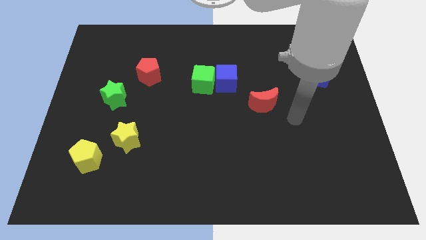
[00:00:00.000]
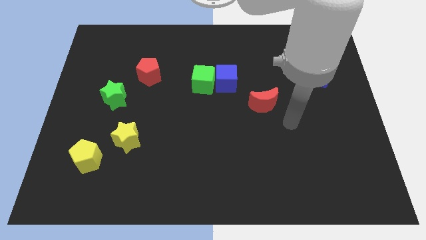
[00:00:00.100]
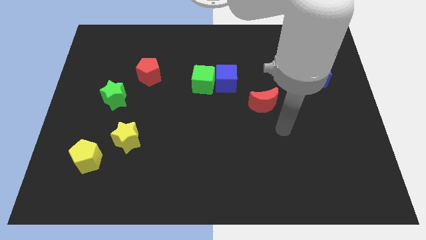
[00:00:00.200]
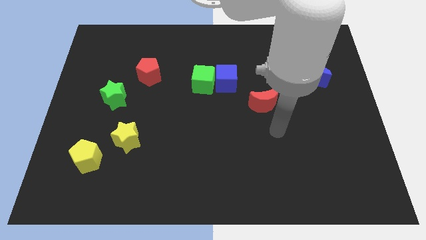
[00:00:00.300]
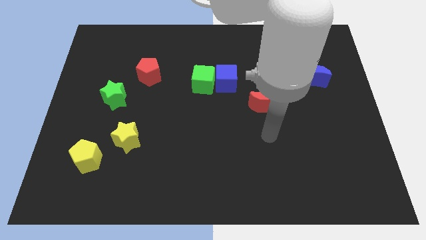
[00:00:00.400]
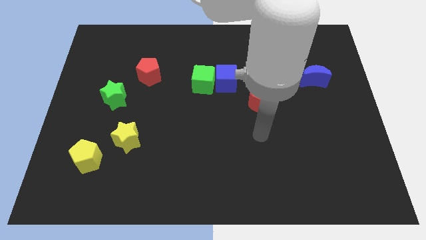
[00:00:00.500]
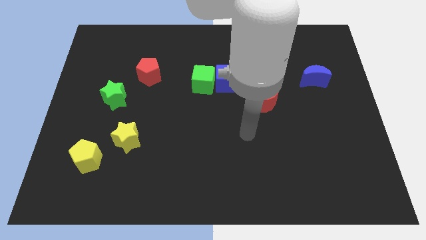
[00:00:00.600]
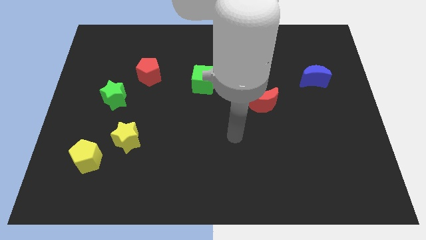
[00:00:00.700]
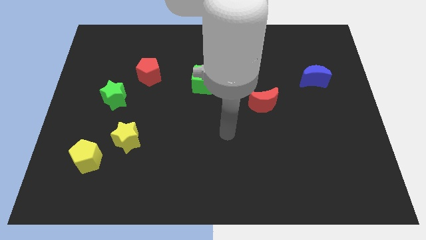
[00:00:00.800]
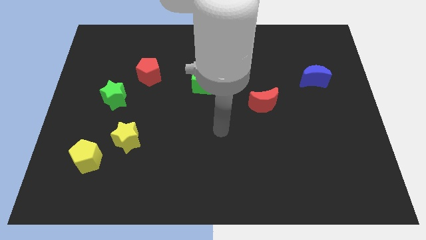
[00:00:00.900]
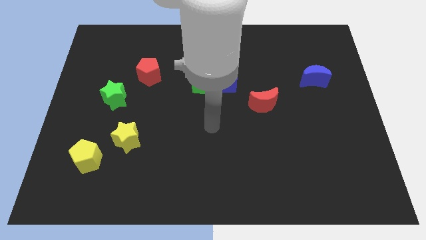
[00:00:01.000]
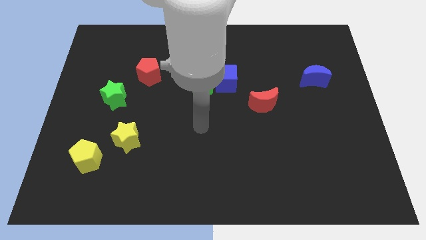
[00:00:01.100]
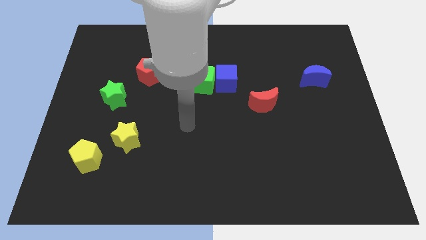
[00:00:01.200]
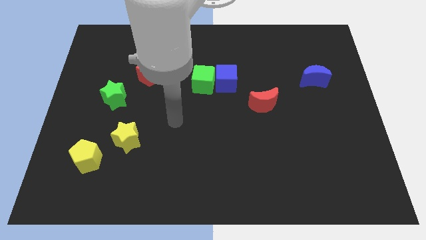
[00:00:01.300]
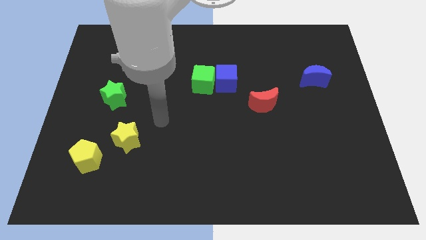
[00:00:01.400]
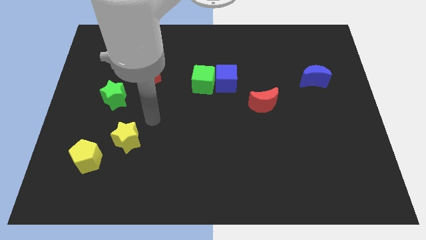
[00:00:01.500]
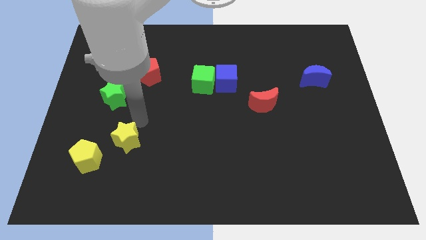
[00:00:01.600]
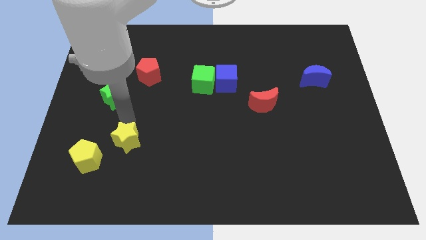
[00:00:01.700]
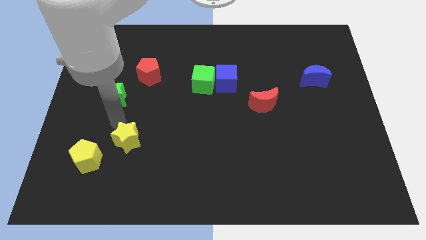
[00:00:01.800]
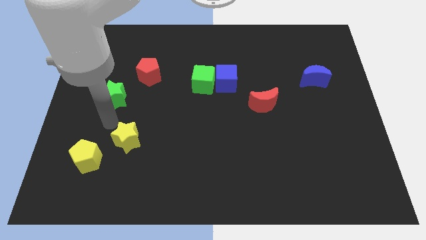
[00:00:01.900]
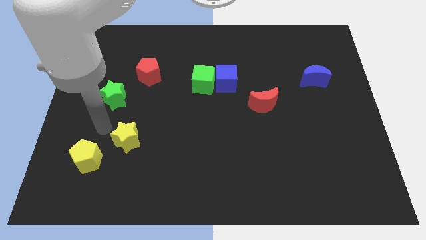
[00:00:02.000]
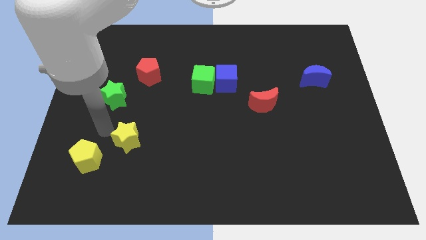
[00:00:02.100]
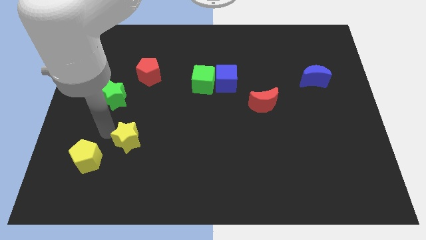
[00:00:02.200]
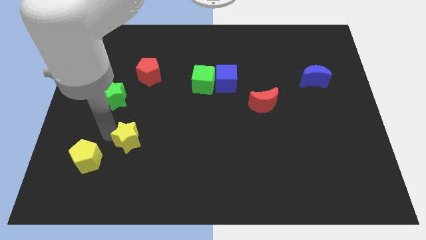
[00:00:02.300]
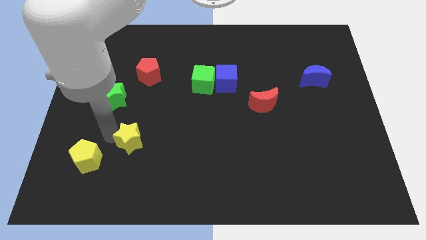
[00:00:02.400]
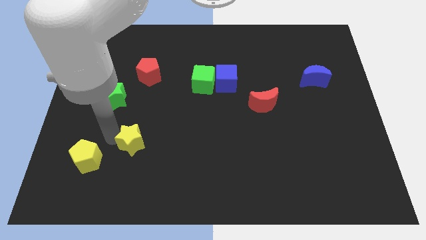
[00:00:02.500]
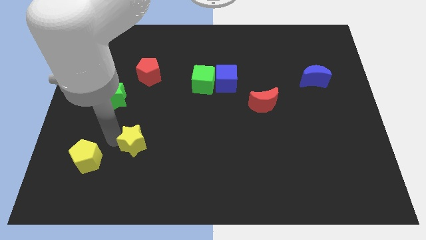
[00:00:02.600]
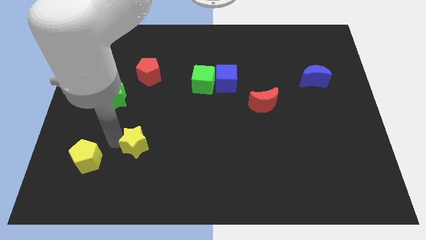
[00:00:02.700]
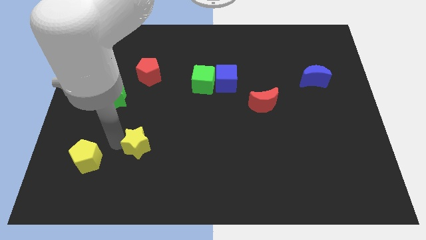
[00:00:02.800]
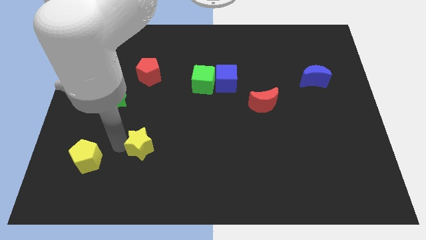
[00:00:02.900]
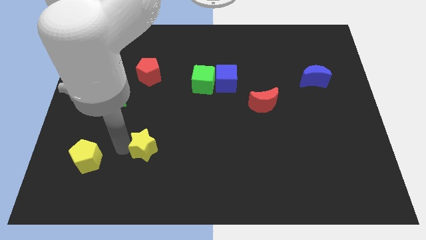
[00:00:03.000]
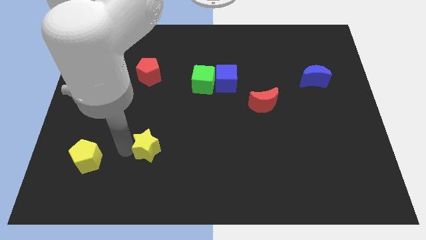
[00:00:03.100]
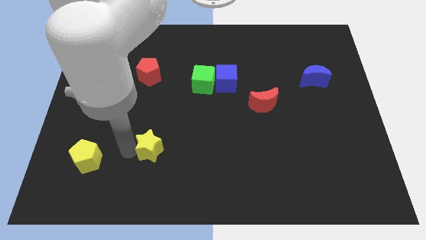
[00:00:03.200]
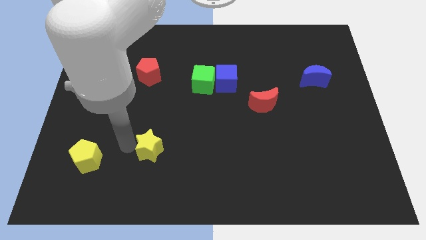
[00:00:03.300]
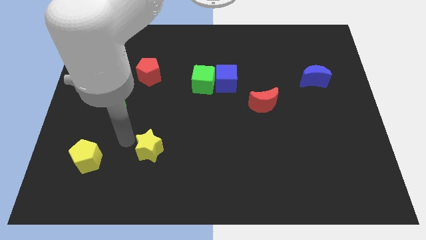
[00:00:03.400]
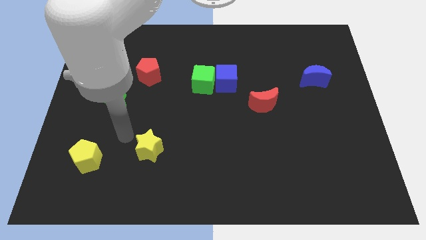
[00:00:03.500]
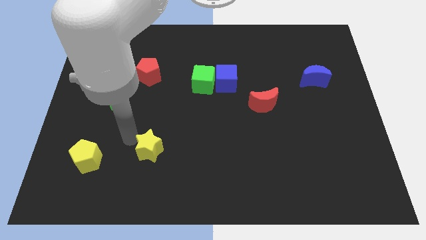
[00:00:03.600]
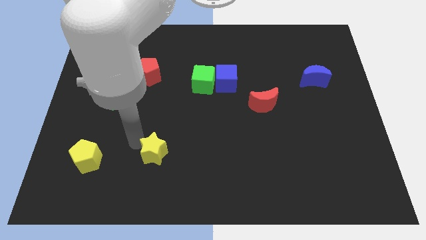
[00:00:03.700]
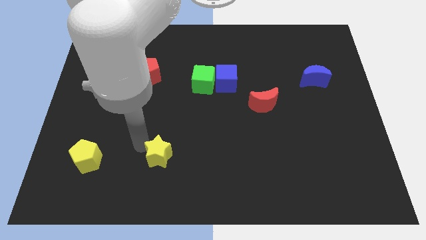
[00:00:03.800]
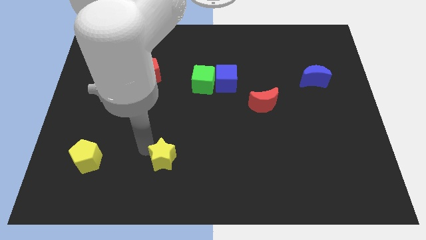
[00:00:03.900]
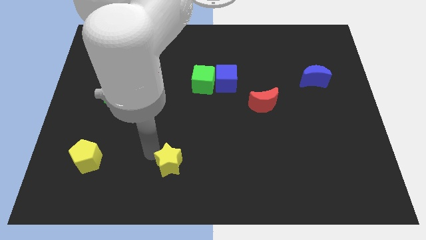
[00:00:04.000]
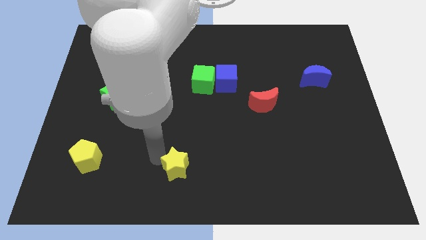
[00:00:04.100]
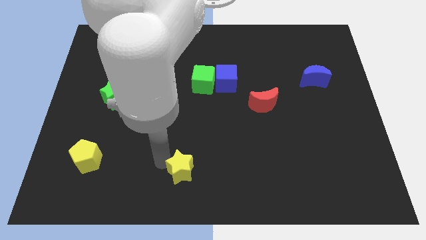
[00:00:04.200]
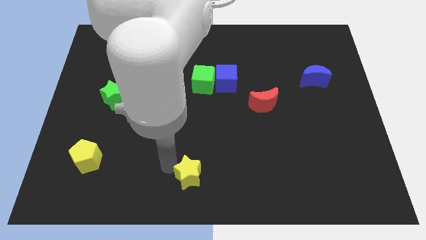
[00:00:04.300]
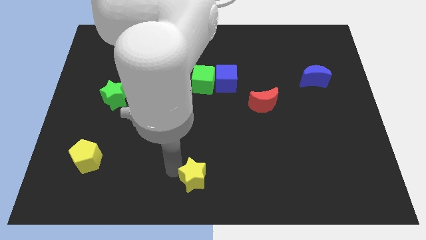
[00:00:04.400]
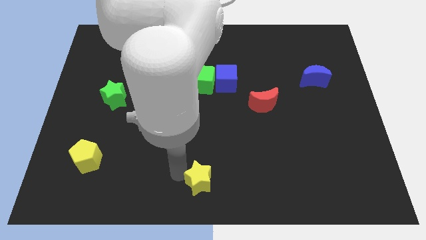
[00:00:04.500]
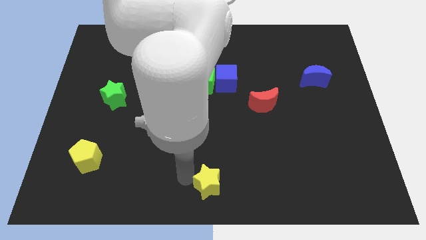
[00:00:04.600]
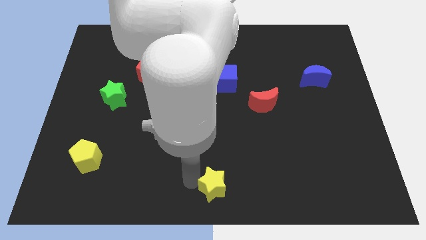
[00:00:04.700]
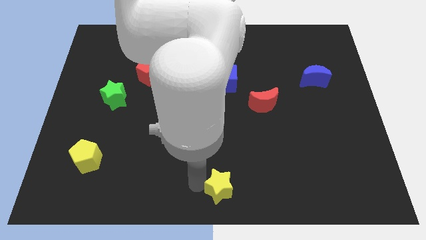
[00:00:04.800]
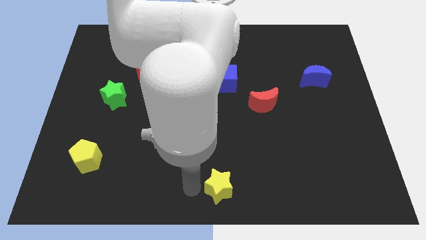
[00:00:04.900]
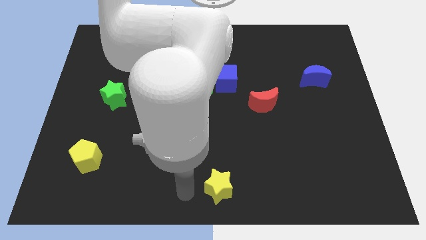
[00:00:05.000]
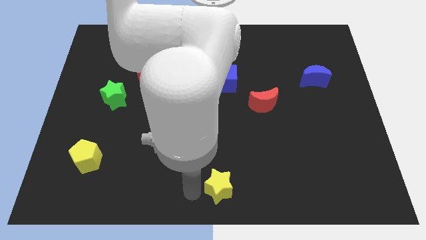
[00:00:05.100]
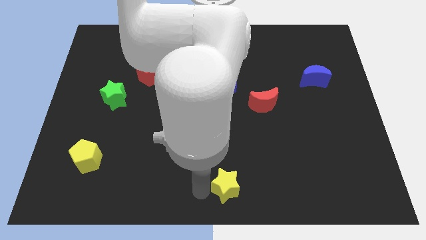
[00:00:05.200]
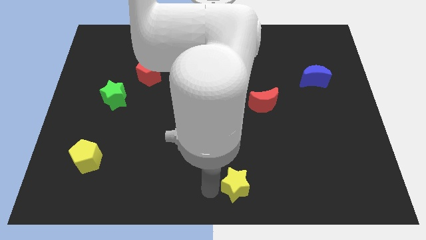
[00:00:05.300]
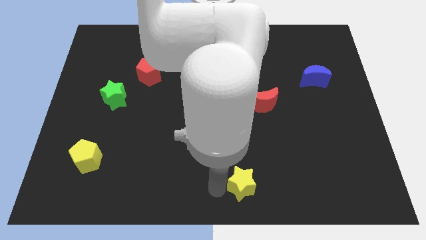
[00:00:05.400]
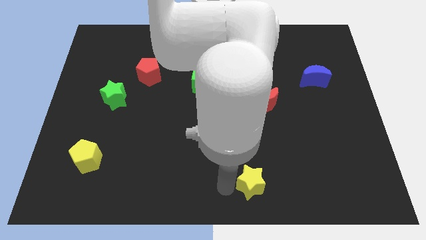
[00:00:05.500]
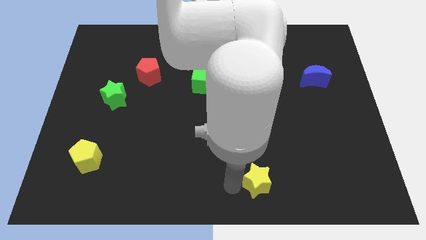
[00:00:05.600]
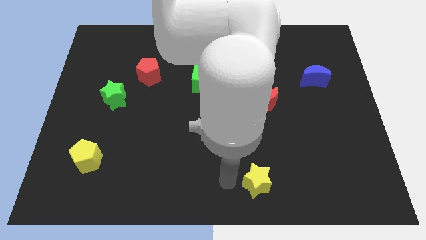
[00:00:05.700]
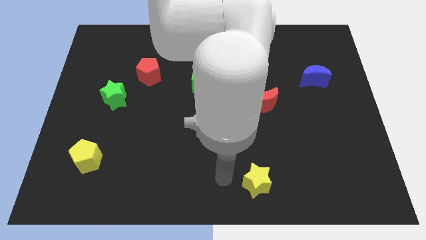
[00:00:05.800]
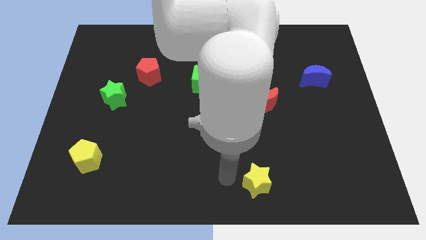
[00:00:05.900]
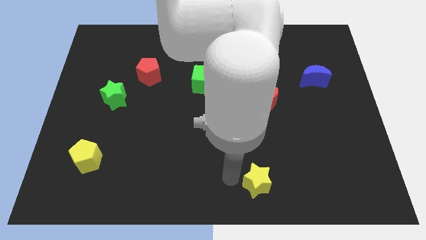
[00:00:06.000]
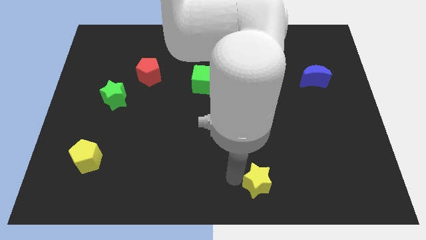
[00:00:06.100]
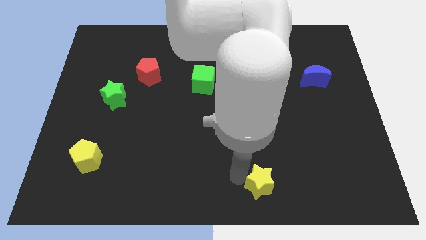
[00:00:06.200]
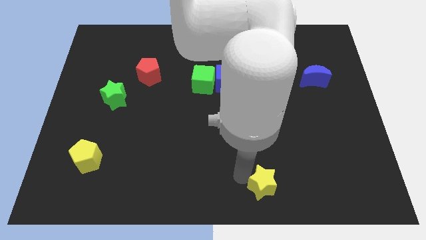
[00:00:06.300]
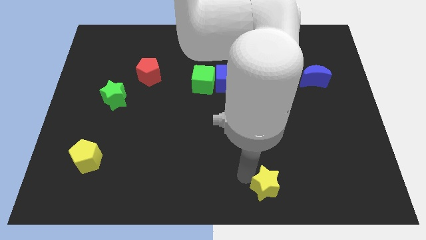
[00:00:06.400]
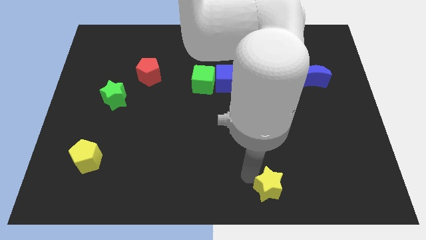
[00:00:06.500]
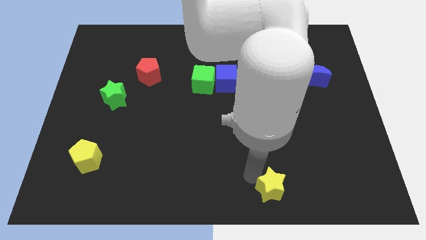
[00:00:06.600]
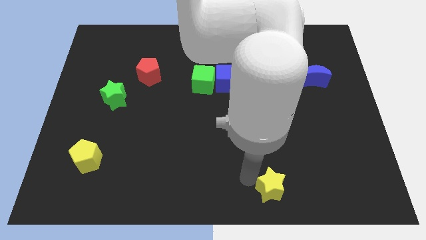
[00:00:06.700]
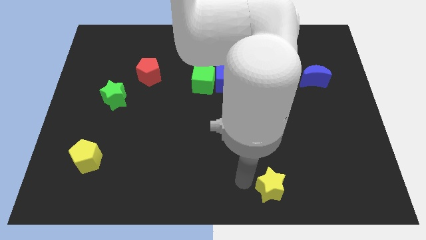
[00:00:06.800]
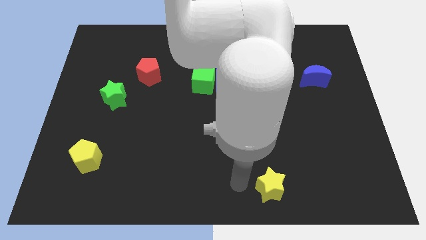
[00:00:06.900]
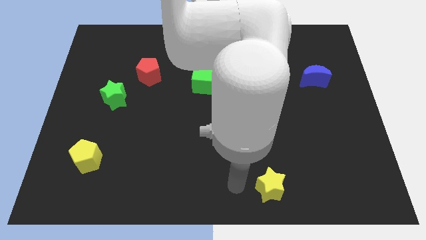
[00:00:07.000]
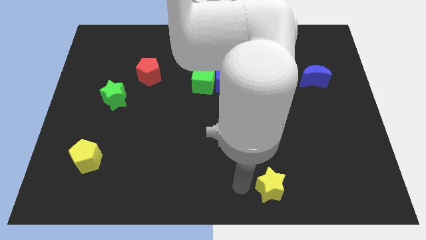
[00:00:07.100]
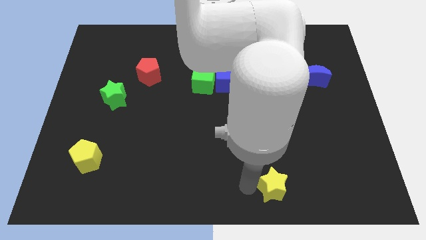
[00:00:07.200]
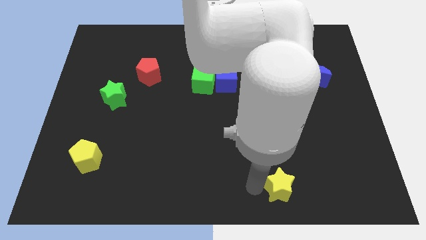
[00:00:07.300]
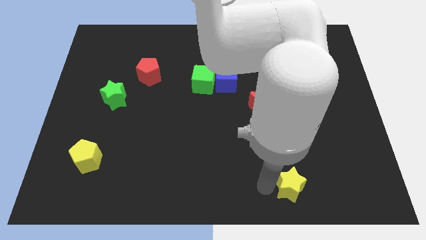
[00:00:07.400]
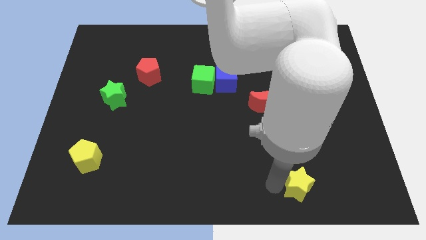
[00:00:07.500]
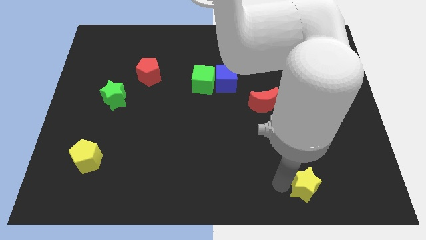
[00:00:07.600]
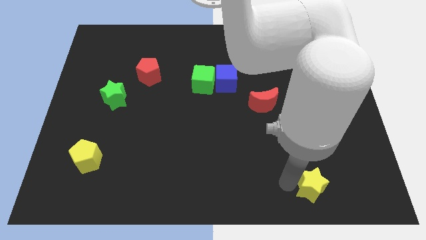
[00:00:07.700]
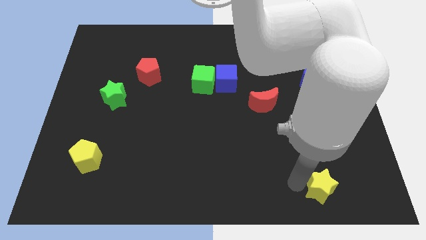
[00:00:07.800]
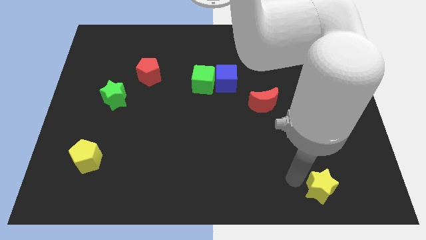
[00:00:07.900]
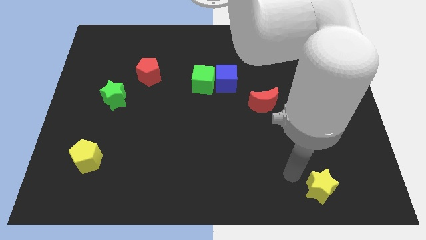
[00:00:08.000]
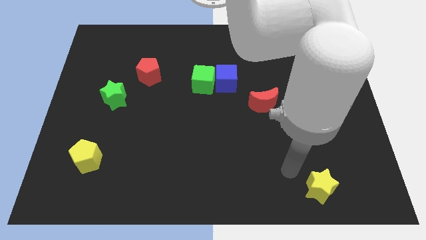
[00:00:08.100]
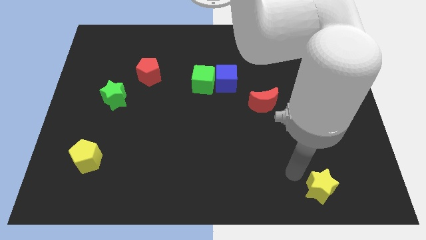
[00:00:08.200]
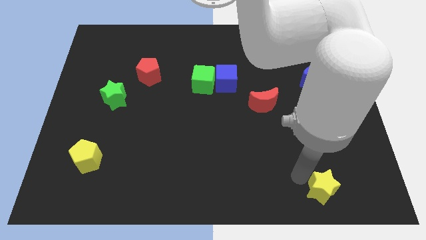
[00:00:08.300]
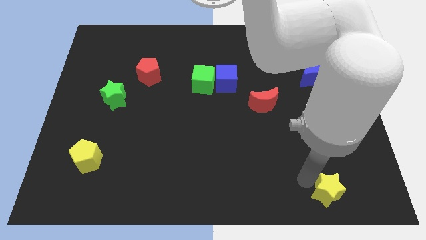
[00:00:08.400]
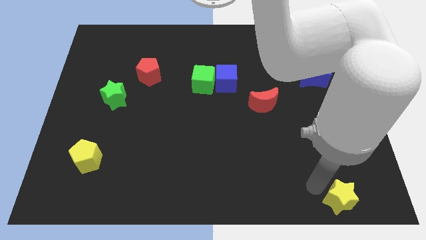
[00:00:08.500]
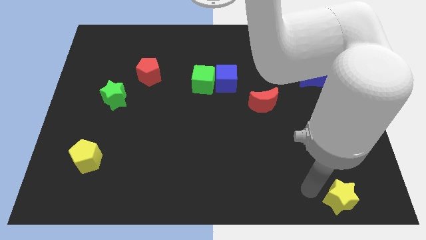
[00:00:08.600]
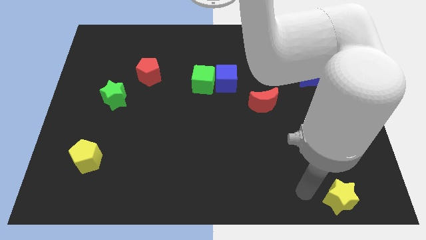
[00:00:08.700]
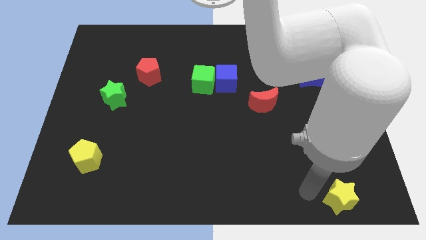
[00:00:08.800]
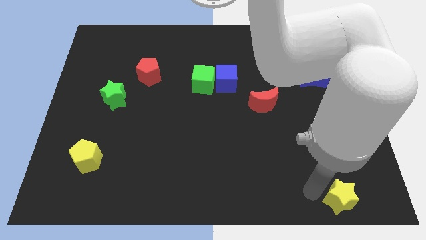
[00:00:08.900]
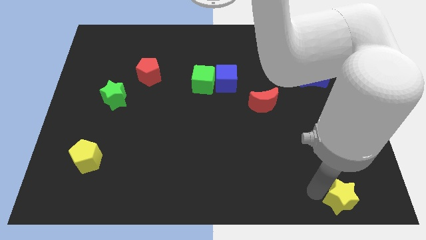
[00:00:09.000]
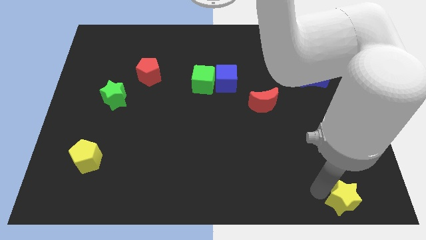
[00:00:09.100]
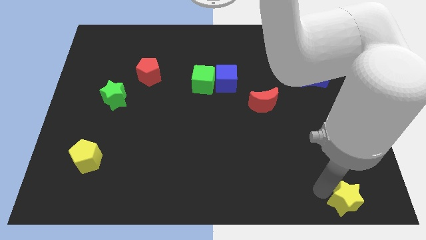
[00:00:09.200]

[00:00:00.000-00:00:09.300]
put the yellow star to the bottom right of the board
